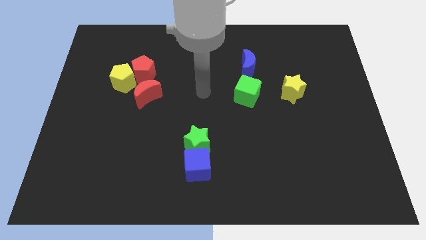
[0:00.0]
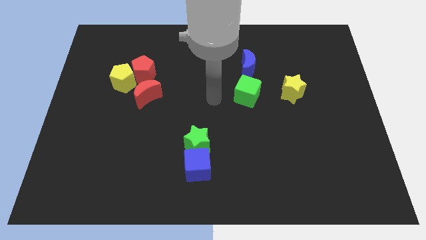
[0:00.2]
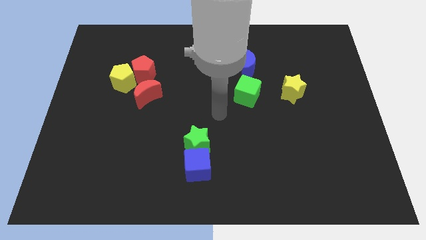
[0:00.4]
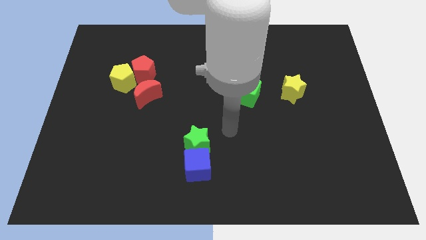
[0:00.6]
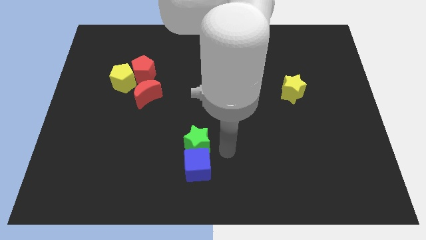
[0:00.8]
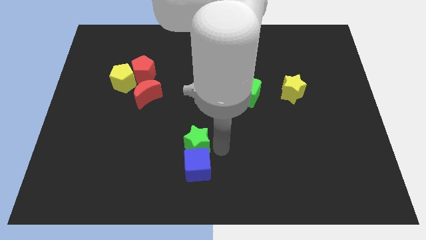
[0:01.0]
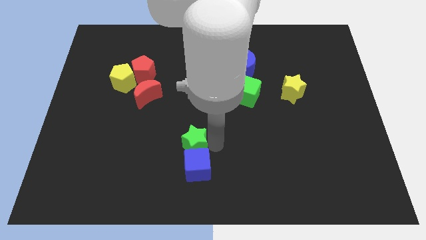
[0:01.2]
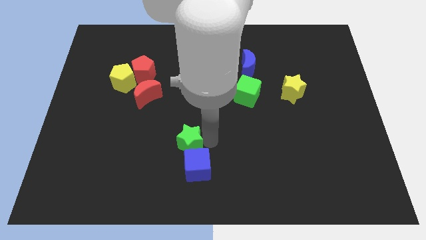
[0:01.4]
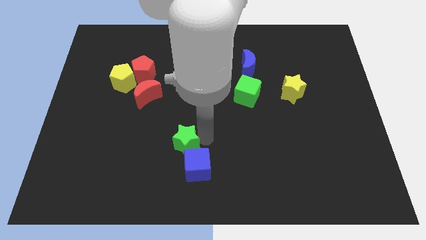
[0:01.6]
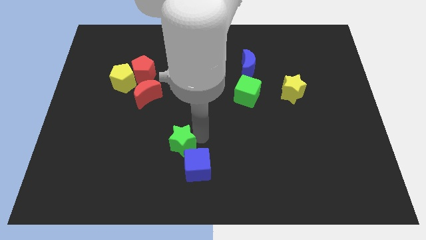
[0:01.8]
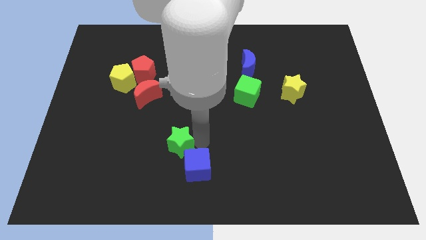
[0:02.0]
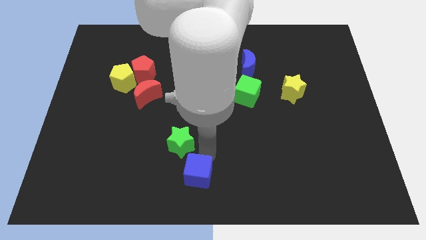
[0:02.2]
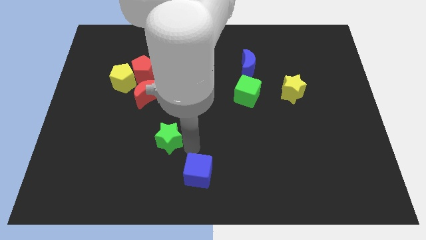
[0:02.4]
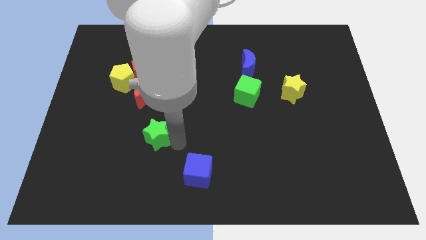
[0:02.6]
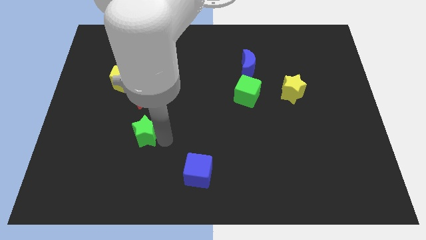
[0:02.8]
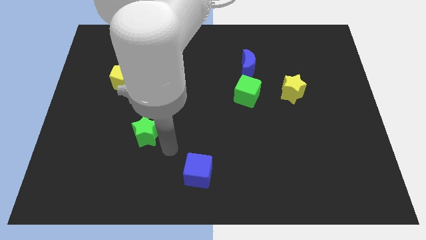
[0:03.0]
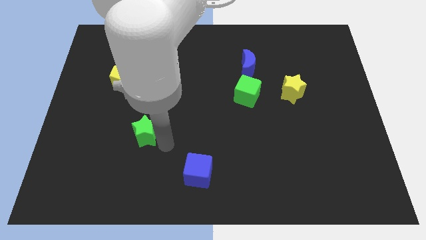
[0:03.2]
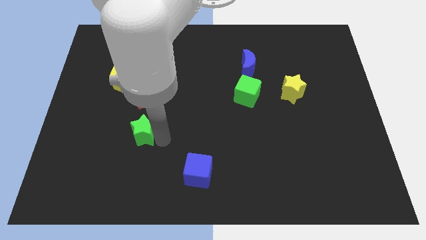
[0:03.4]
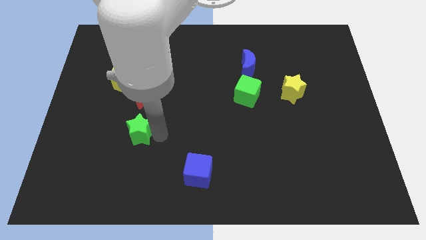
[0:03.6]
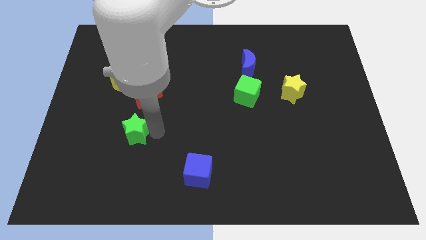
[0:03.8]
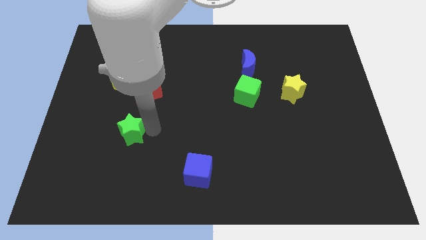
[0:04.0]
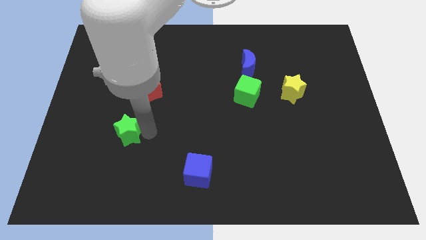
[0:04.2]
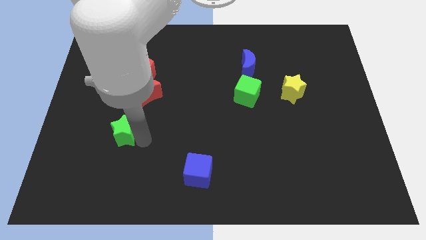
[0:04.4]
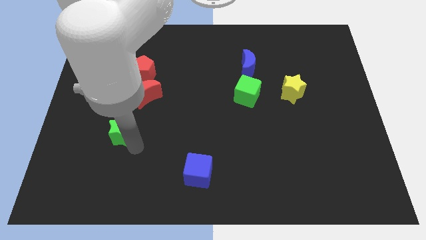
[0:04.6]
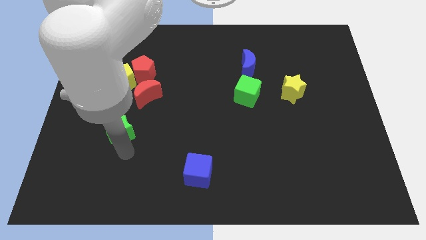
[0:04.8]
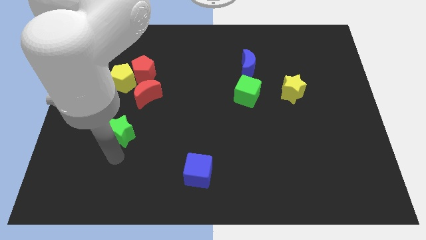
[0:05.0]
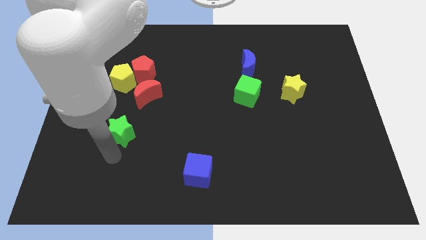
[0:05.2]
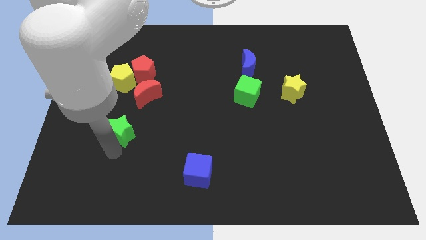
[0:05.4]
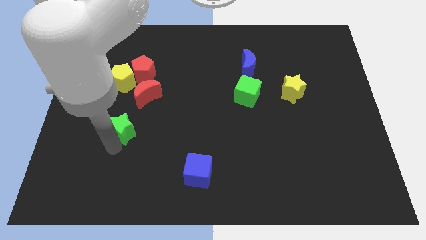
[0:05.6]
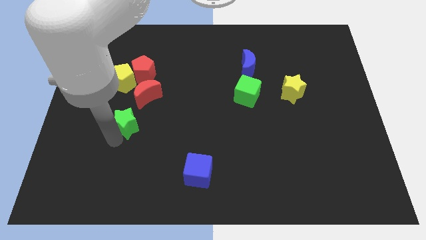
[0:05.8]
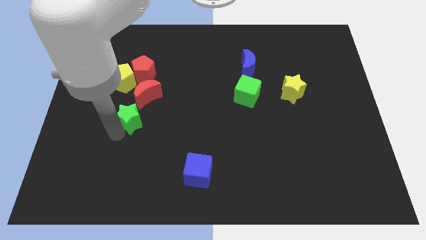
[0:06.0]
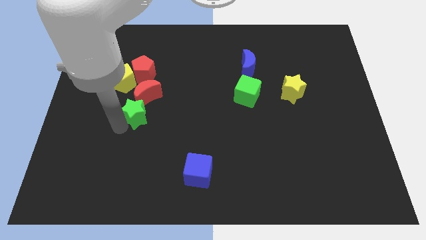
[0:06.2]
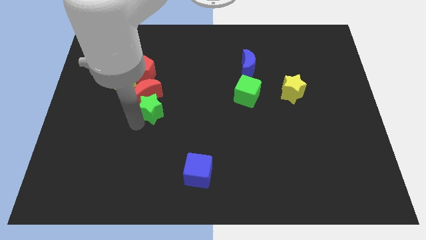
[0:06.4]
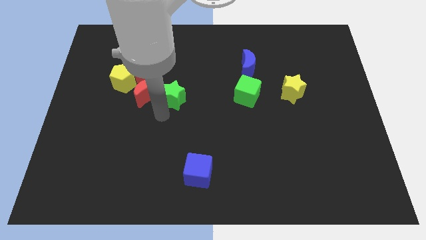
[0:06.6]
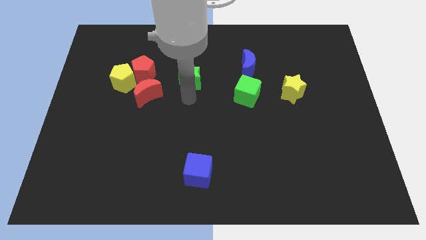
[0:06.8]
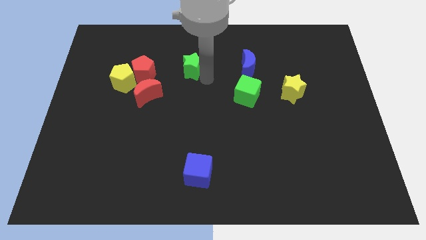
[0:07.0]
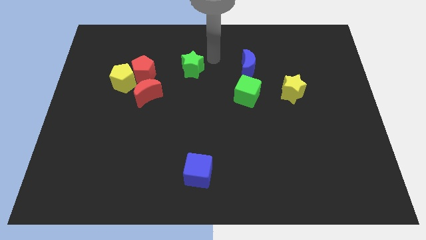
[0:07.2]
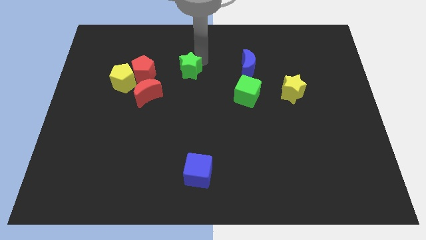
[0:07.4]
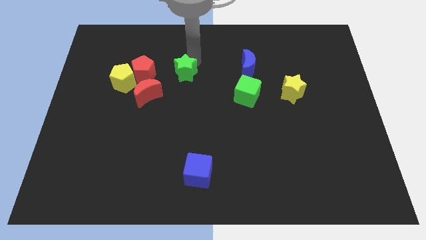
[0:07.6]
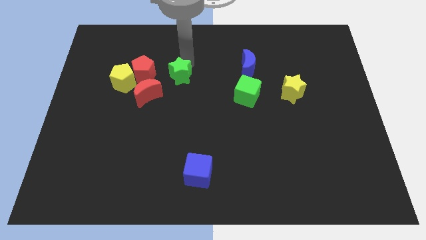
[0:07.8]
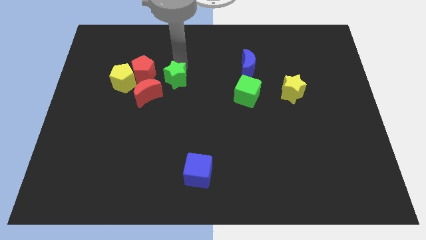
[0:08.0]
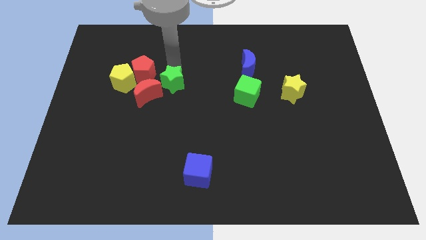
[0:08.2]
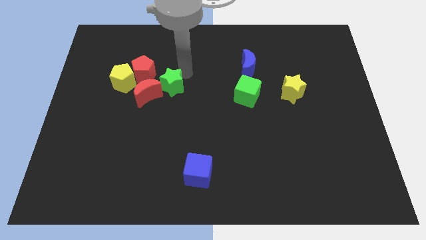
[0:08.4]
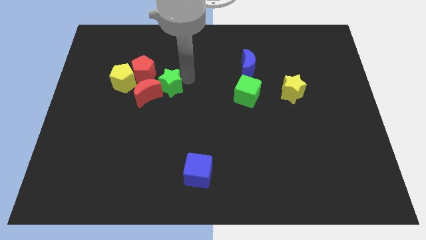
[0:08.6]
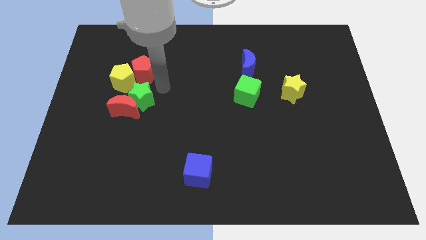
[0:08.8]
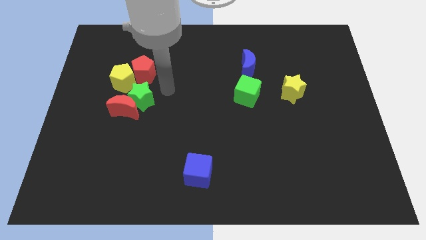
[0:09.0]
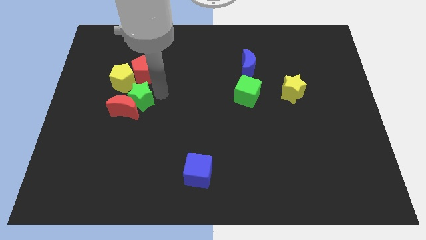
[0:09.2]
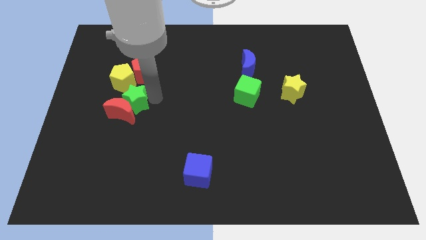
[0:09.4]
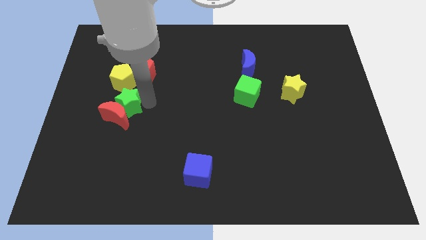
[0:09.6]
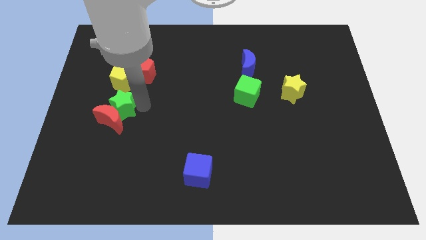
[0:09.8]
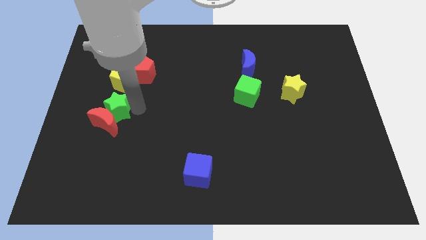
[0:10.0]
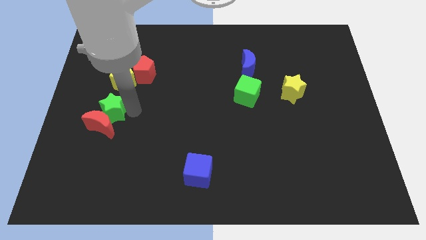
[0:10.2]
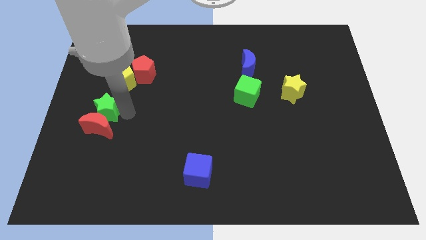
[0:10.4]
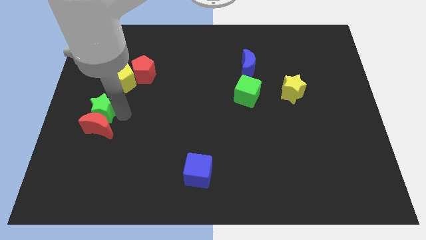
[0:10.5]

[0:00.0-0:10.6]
move the green star to the left side of the board

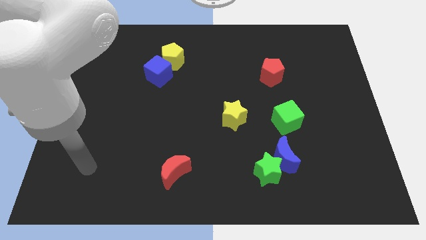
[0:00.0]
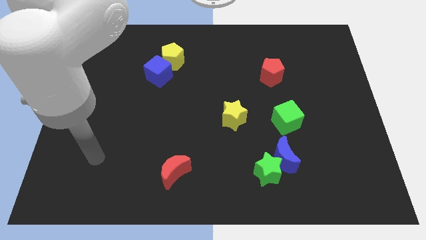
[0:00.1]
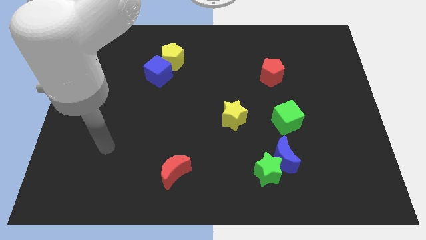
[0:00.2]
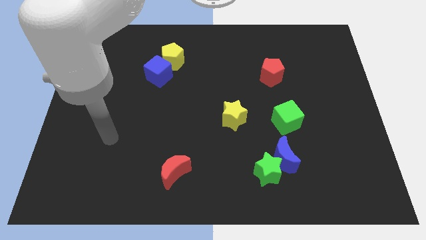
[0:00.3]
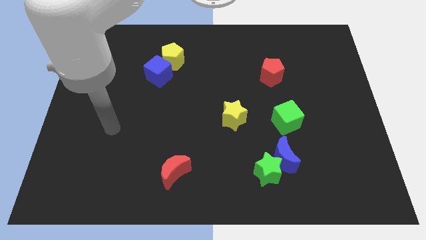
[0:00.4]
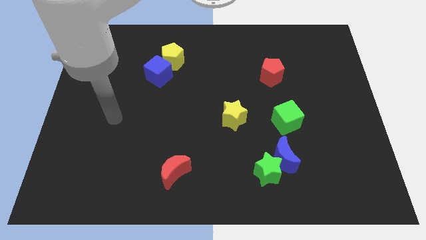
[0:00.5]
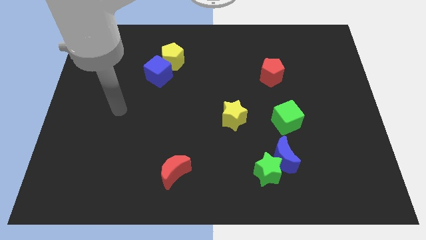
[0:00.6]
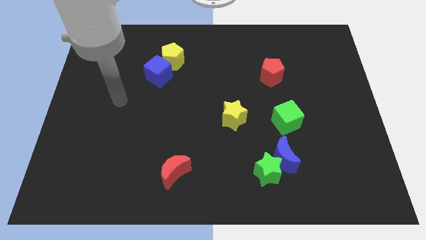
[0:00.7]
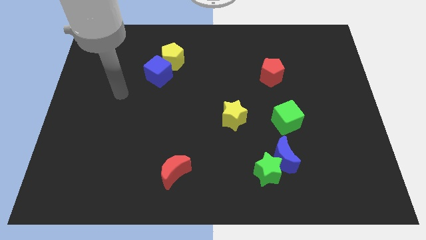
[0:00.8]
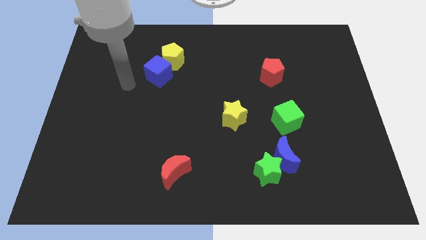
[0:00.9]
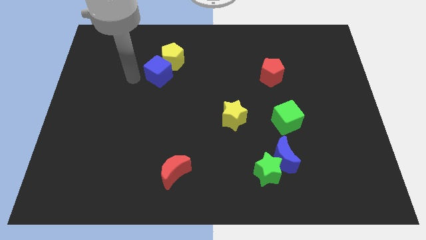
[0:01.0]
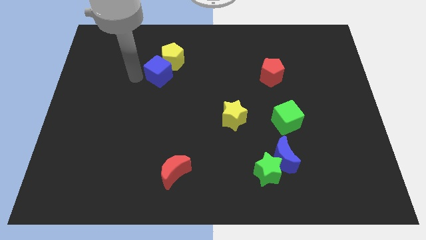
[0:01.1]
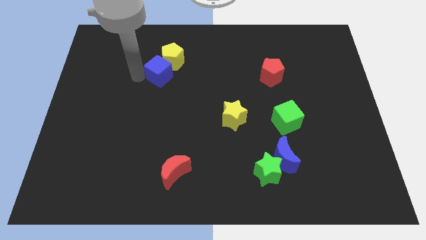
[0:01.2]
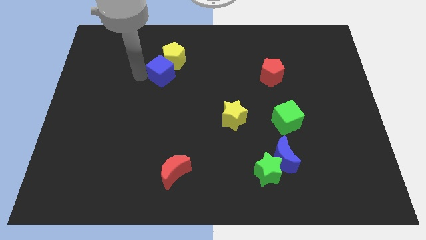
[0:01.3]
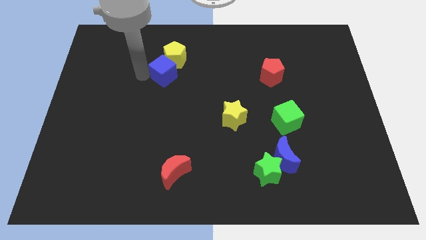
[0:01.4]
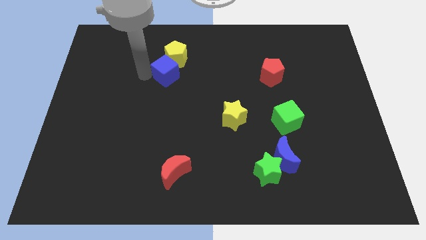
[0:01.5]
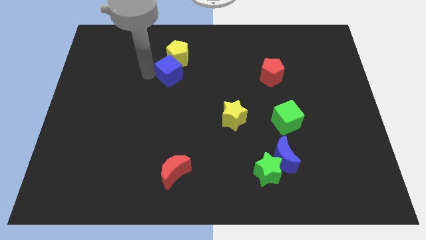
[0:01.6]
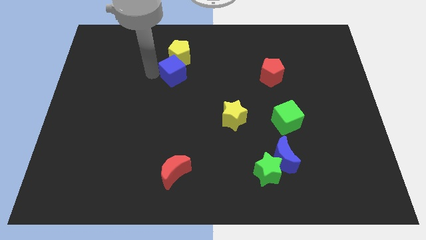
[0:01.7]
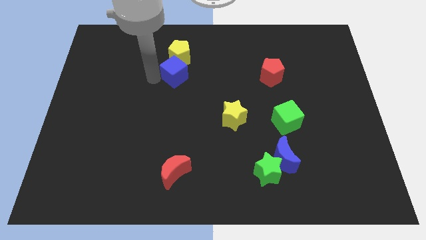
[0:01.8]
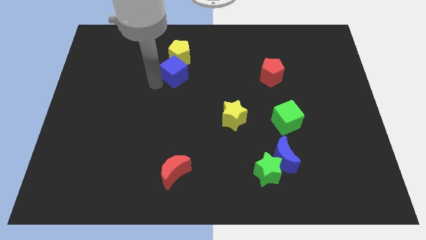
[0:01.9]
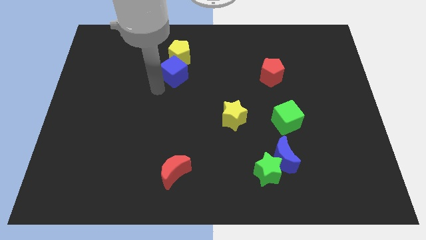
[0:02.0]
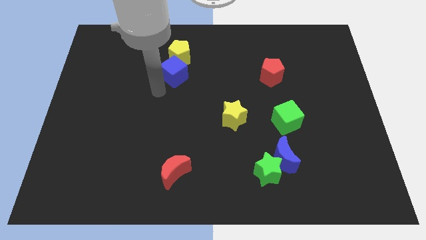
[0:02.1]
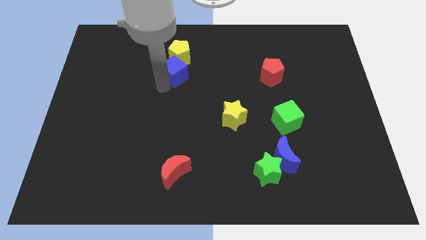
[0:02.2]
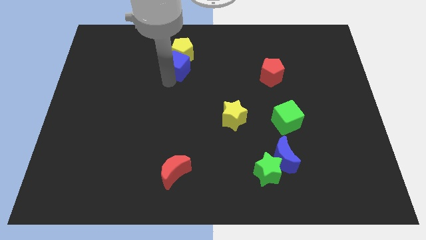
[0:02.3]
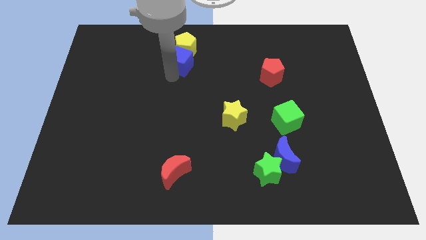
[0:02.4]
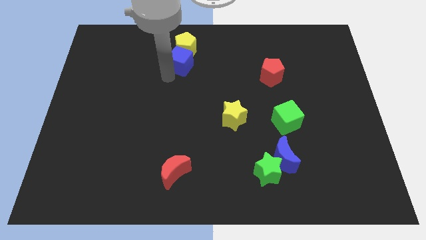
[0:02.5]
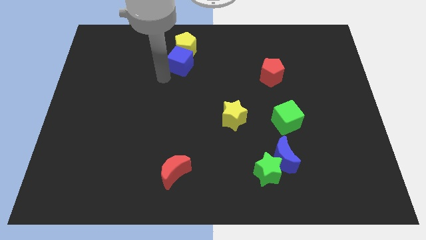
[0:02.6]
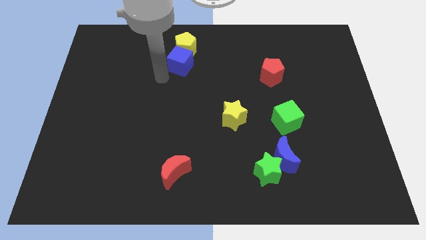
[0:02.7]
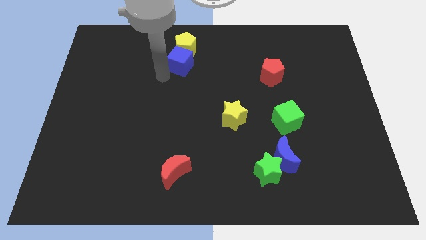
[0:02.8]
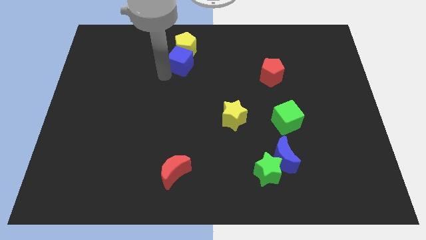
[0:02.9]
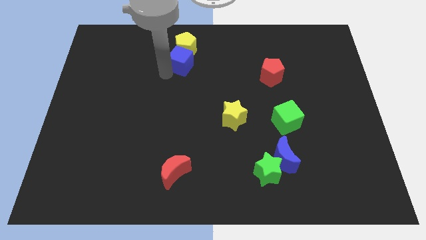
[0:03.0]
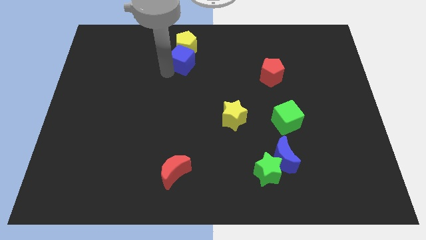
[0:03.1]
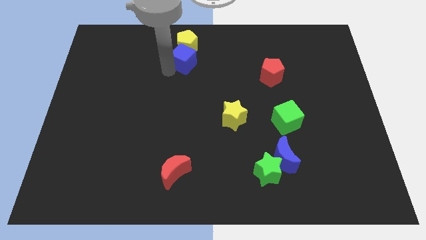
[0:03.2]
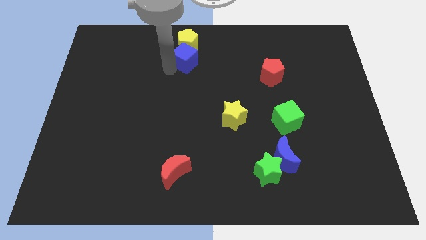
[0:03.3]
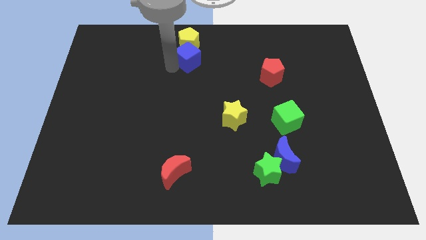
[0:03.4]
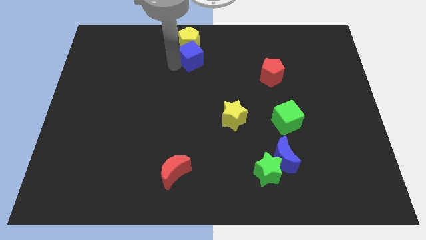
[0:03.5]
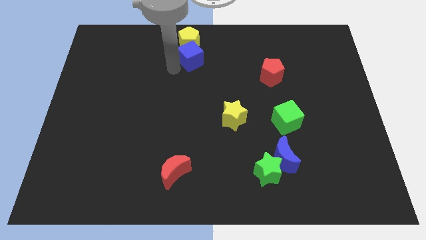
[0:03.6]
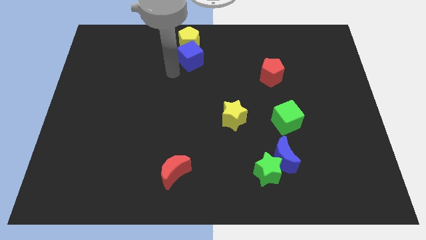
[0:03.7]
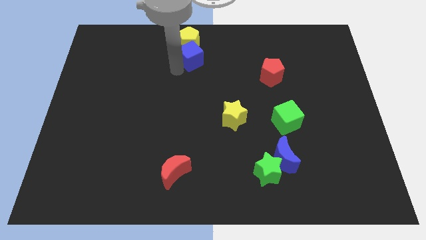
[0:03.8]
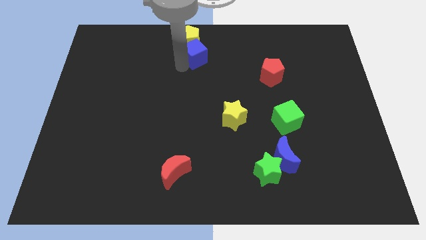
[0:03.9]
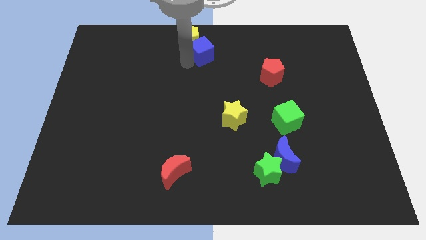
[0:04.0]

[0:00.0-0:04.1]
move the blue cube to the top side
